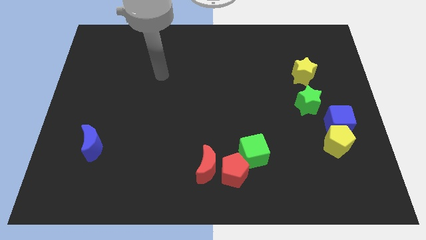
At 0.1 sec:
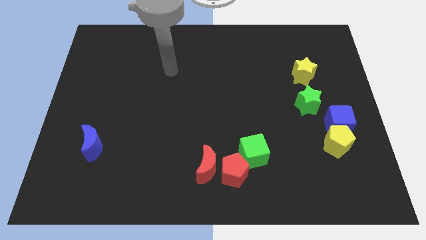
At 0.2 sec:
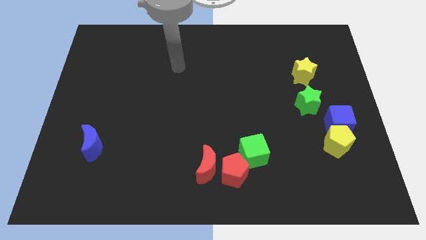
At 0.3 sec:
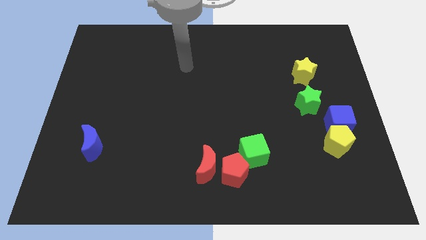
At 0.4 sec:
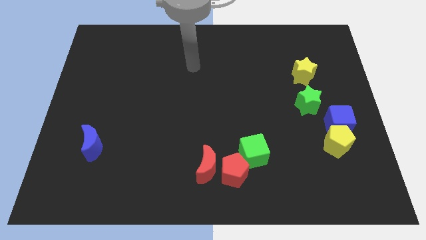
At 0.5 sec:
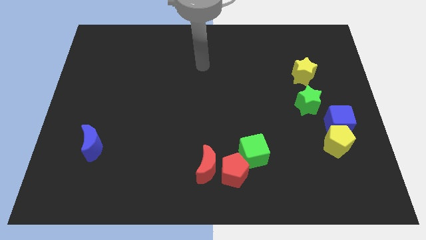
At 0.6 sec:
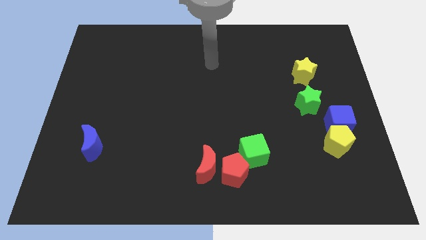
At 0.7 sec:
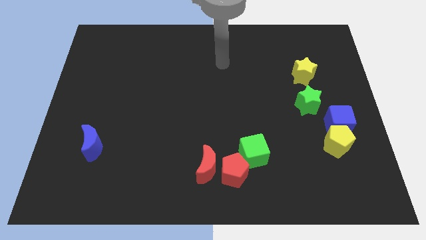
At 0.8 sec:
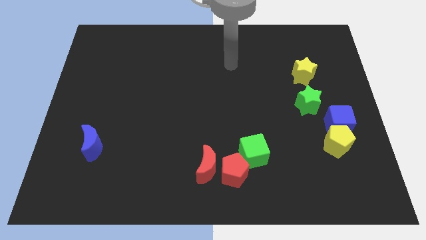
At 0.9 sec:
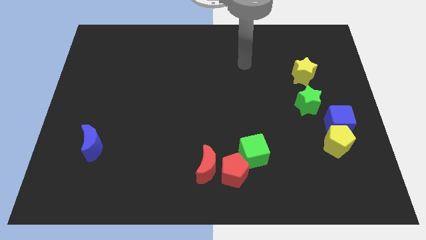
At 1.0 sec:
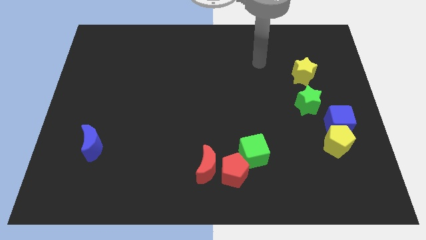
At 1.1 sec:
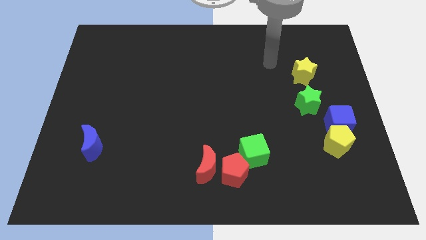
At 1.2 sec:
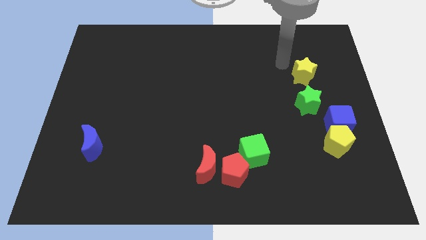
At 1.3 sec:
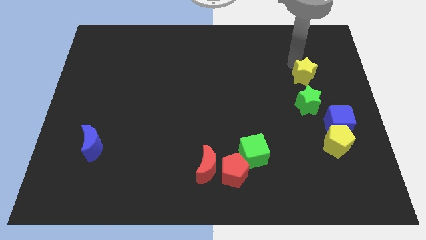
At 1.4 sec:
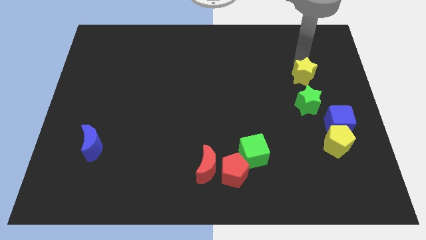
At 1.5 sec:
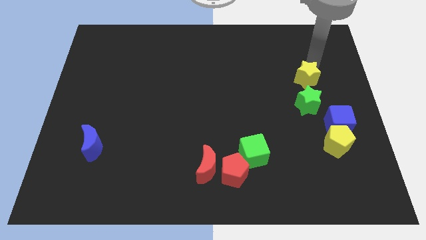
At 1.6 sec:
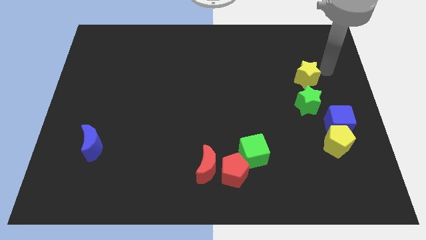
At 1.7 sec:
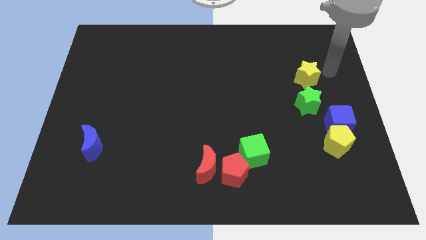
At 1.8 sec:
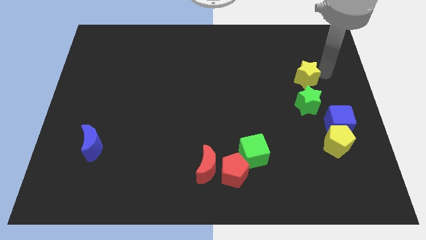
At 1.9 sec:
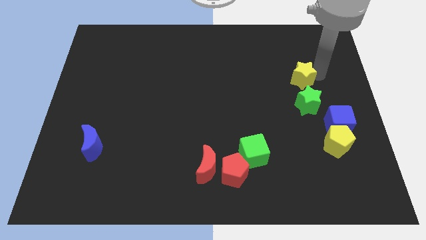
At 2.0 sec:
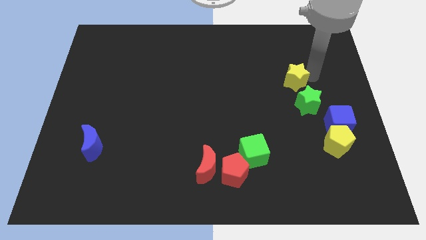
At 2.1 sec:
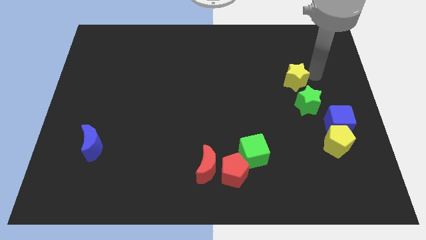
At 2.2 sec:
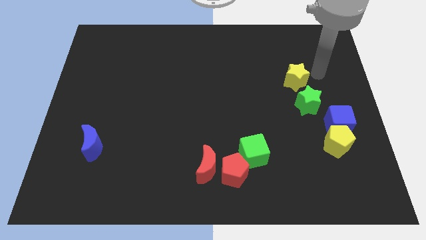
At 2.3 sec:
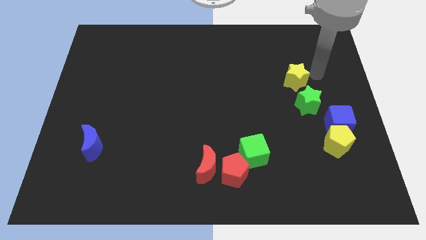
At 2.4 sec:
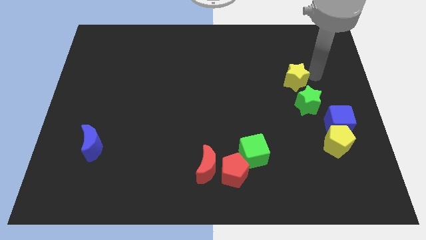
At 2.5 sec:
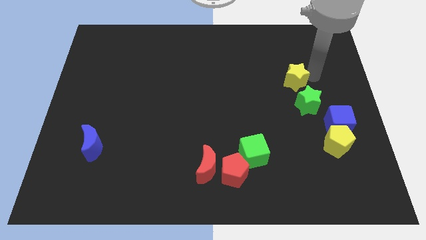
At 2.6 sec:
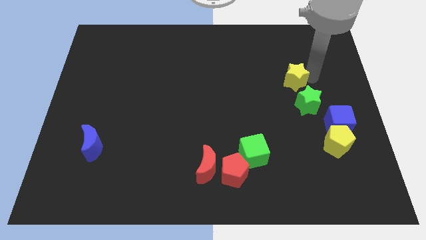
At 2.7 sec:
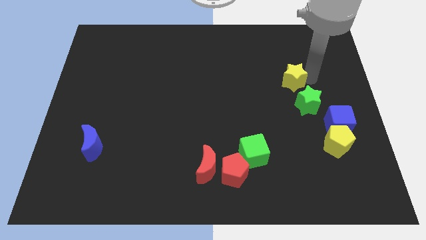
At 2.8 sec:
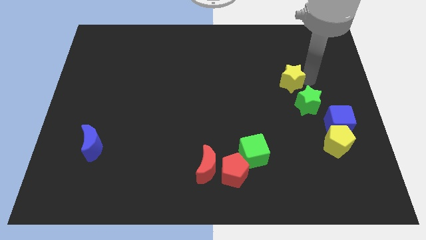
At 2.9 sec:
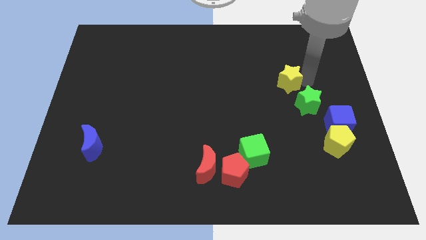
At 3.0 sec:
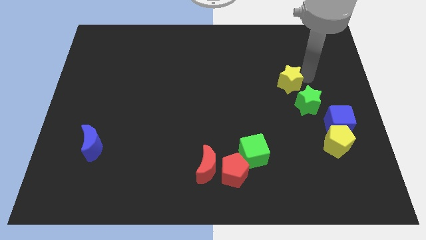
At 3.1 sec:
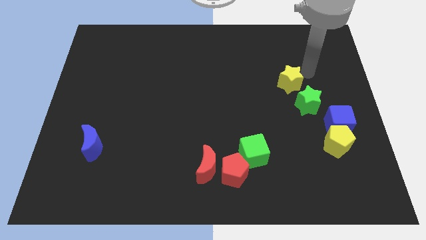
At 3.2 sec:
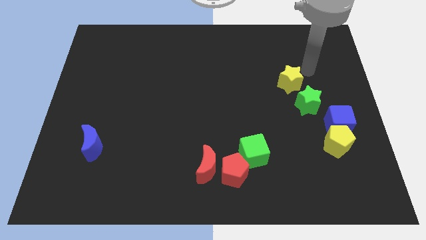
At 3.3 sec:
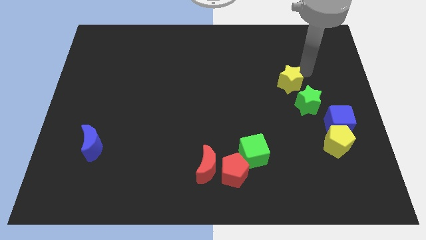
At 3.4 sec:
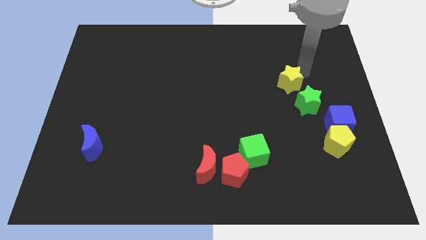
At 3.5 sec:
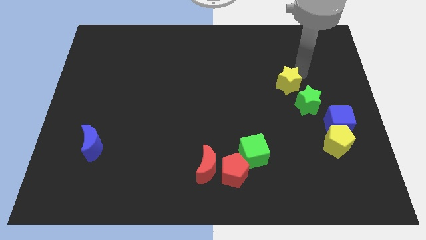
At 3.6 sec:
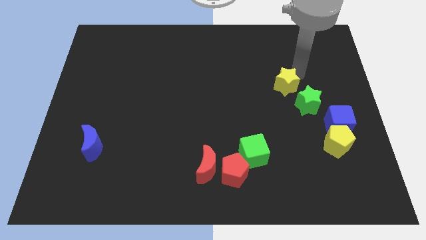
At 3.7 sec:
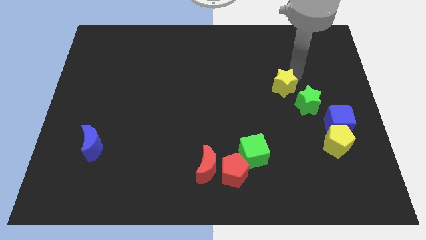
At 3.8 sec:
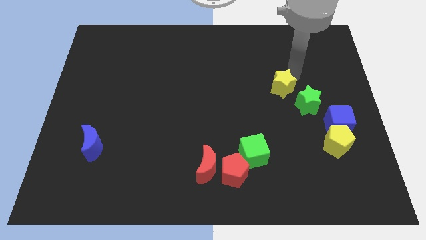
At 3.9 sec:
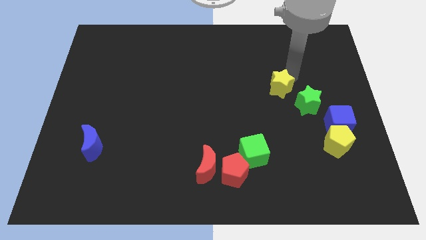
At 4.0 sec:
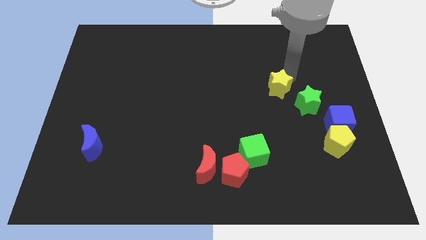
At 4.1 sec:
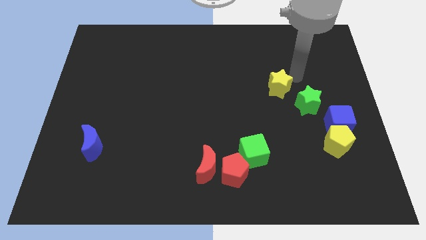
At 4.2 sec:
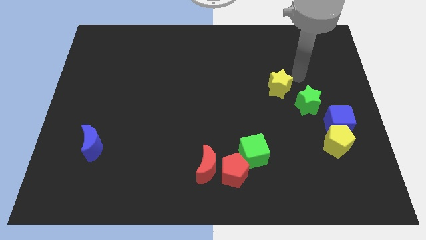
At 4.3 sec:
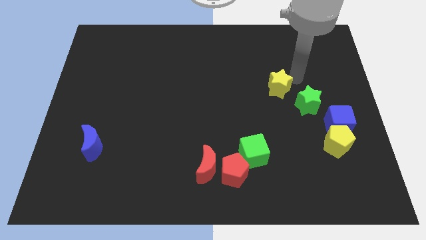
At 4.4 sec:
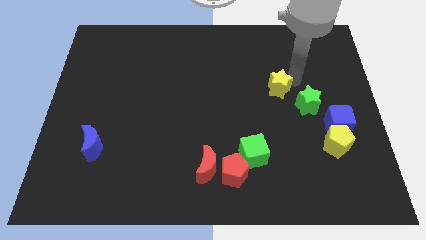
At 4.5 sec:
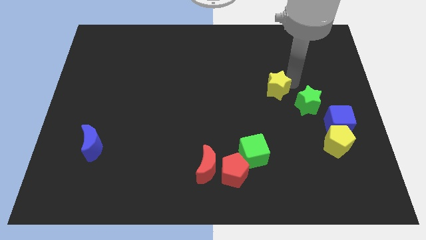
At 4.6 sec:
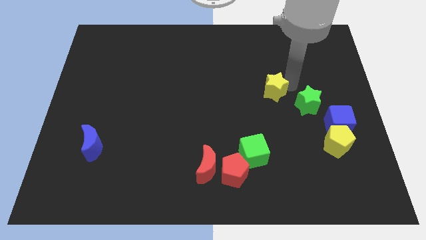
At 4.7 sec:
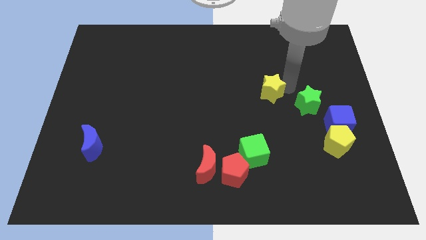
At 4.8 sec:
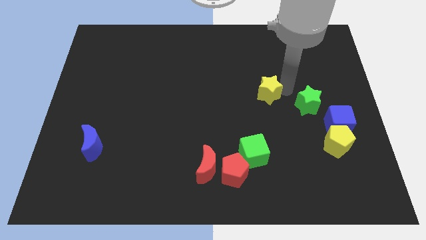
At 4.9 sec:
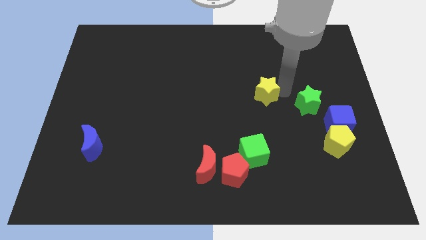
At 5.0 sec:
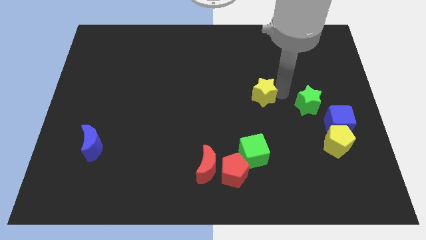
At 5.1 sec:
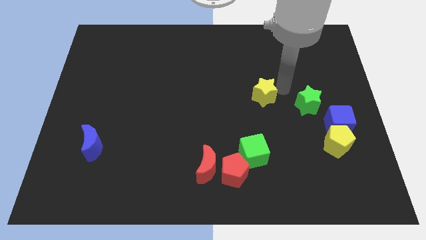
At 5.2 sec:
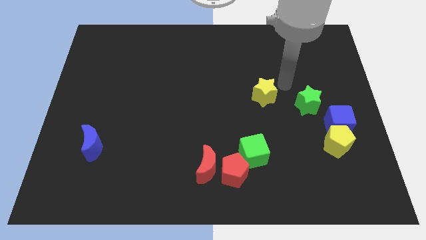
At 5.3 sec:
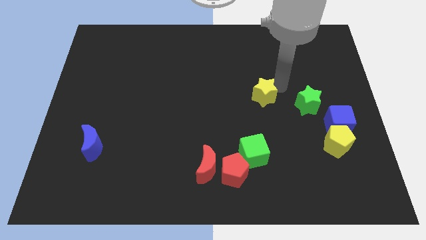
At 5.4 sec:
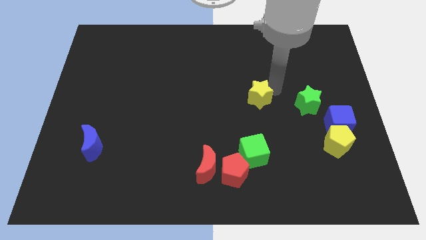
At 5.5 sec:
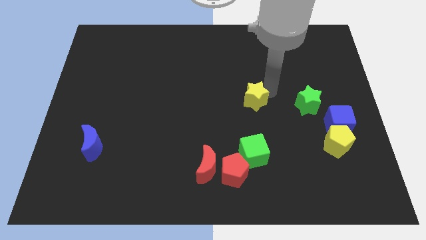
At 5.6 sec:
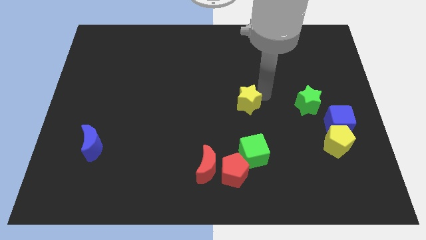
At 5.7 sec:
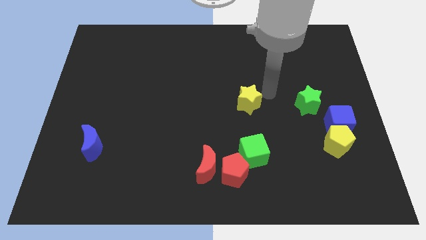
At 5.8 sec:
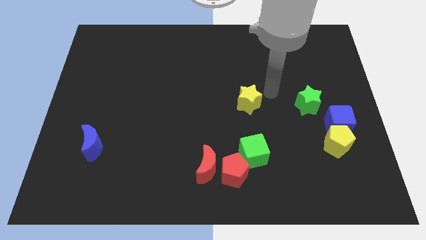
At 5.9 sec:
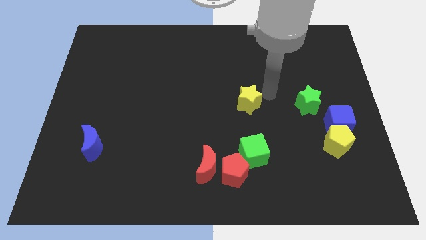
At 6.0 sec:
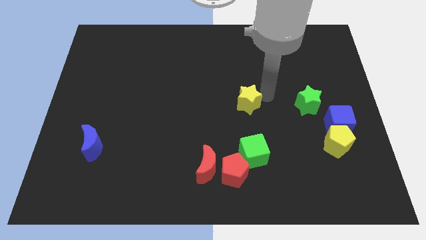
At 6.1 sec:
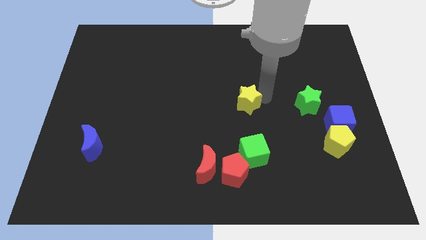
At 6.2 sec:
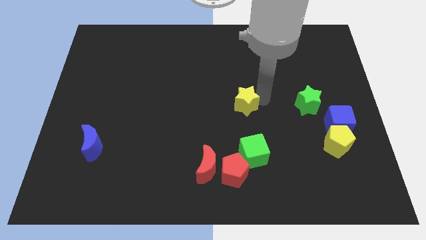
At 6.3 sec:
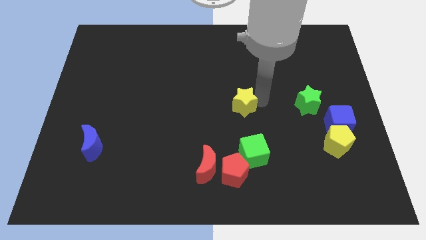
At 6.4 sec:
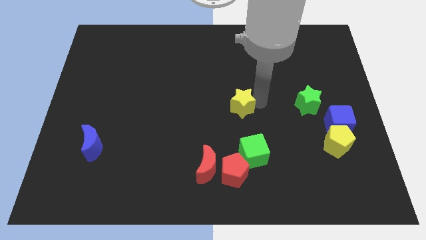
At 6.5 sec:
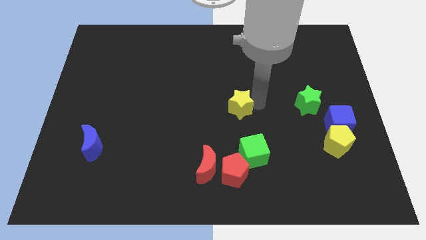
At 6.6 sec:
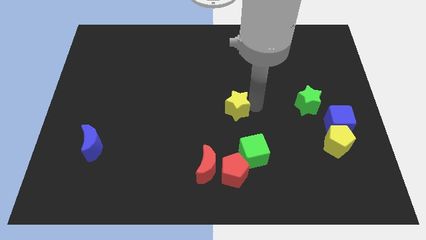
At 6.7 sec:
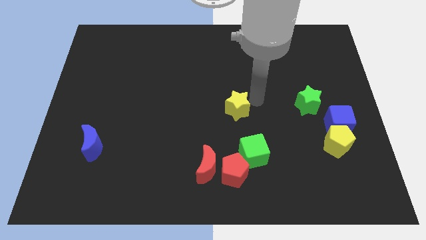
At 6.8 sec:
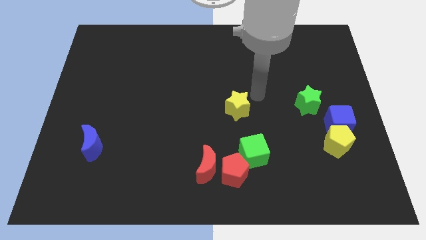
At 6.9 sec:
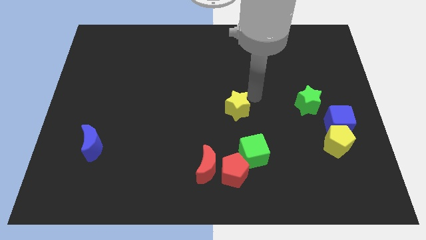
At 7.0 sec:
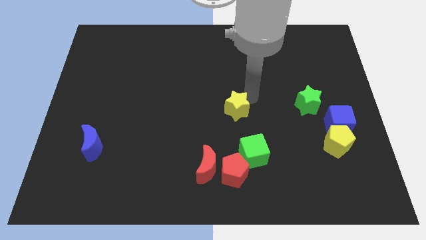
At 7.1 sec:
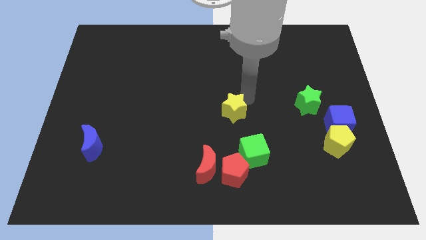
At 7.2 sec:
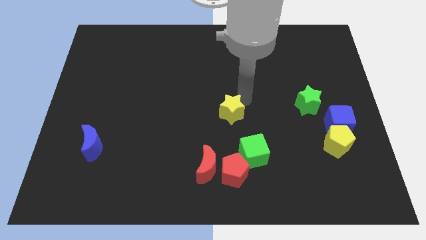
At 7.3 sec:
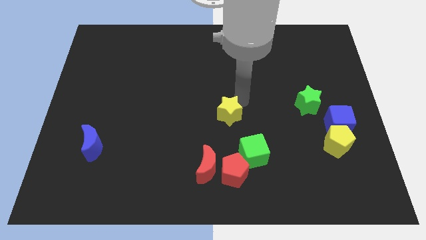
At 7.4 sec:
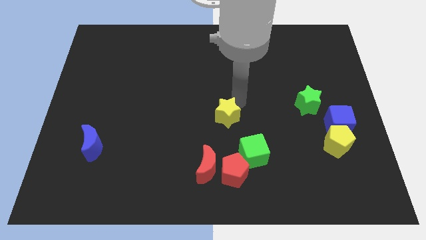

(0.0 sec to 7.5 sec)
put the yellow star to the top side of the red moon
